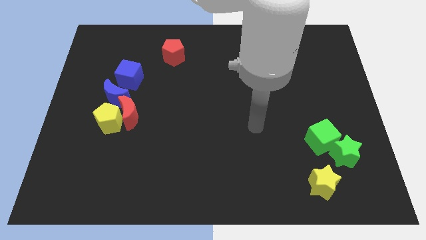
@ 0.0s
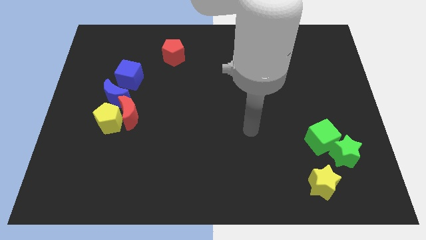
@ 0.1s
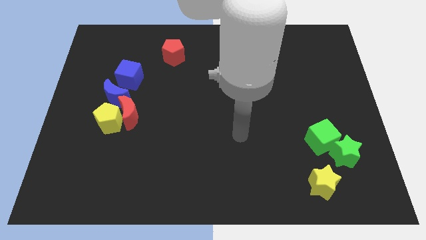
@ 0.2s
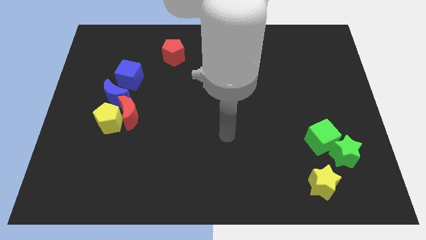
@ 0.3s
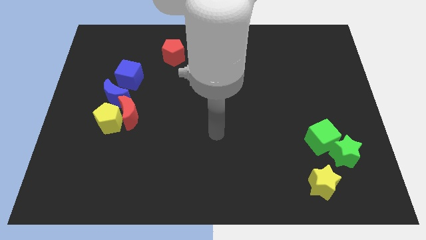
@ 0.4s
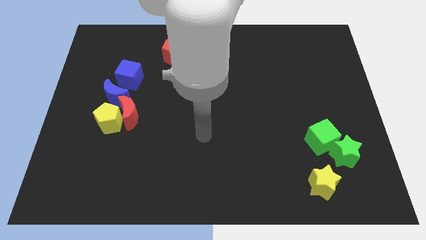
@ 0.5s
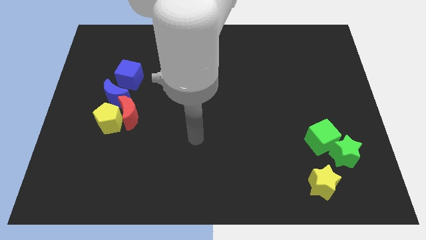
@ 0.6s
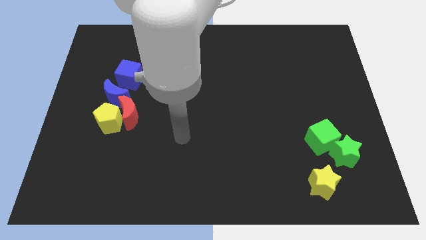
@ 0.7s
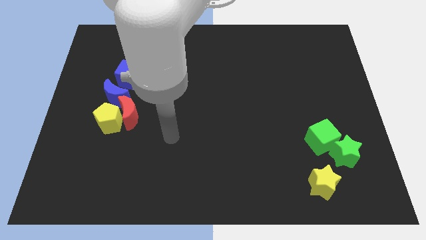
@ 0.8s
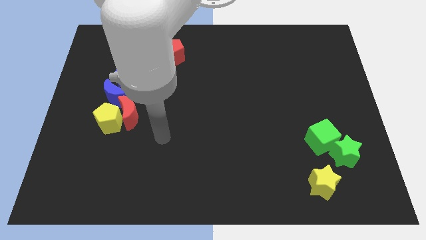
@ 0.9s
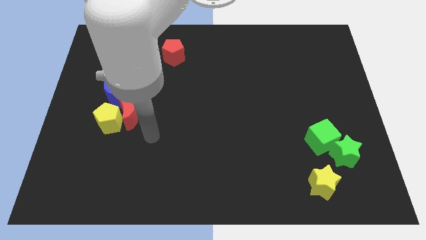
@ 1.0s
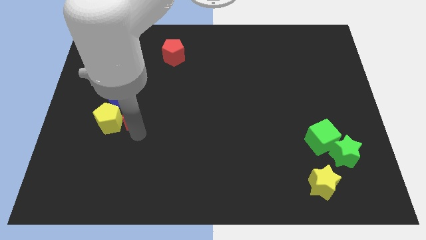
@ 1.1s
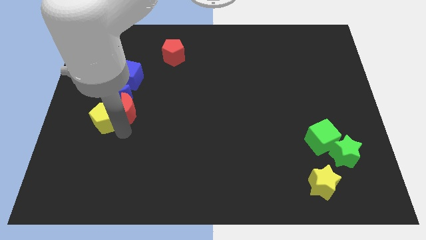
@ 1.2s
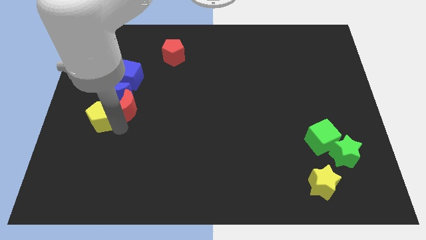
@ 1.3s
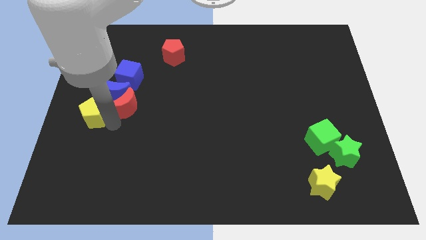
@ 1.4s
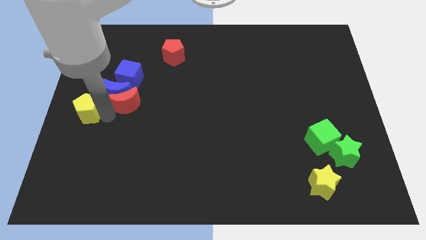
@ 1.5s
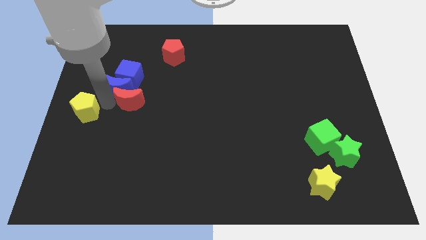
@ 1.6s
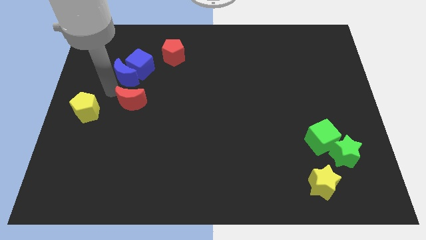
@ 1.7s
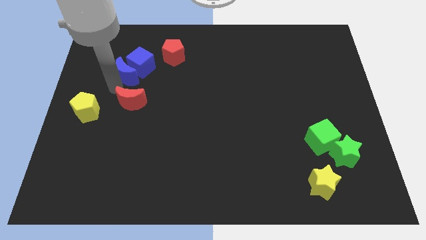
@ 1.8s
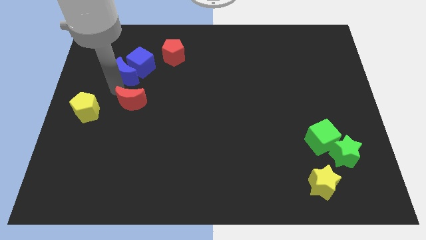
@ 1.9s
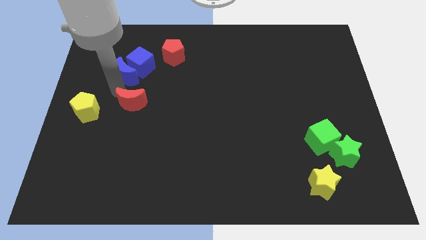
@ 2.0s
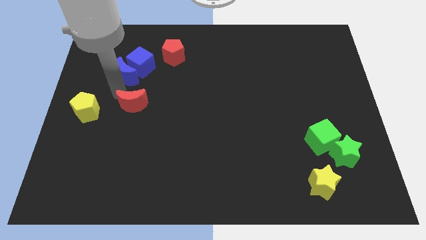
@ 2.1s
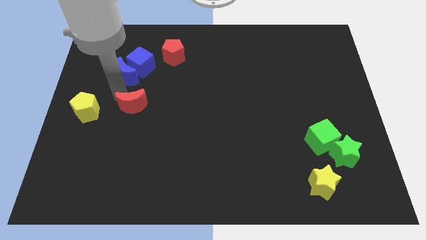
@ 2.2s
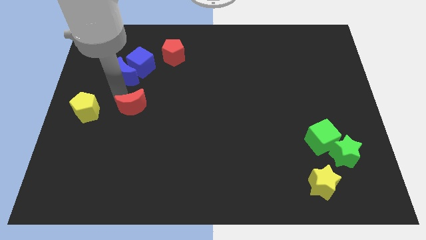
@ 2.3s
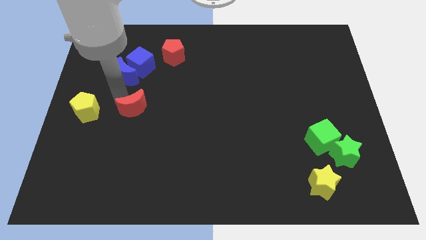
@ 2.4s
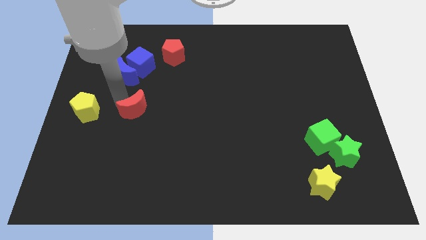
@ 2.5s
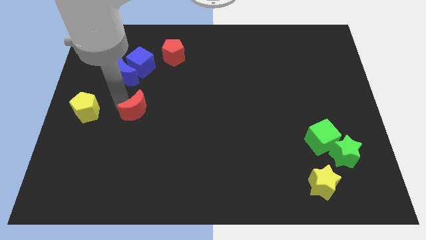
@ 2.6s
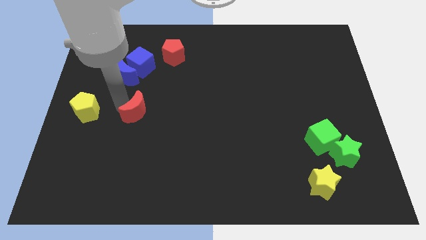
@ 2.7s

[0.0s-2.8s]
move the red moon away from the yellow pentagon and blue moon

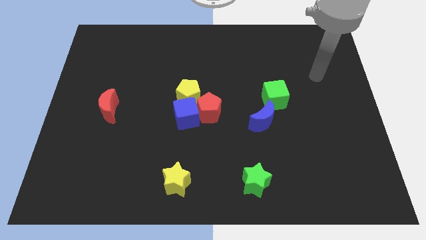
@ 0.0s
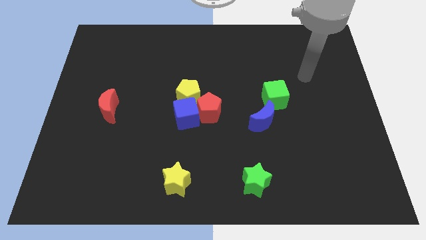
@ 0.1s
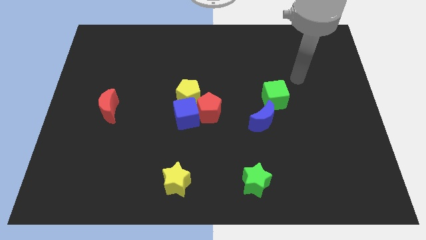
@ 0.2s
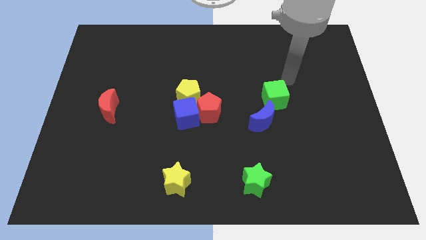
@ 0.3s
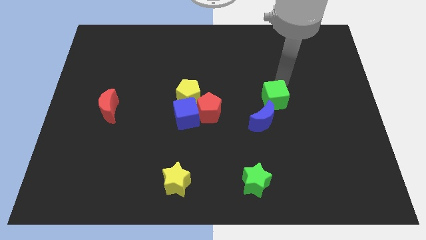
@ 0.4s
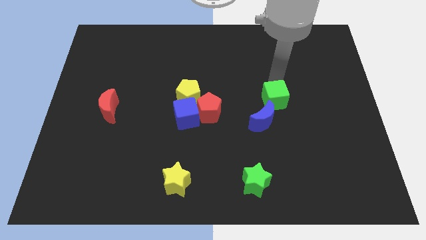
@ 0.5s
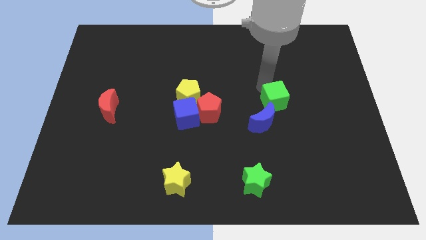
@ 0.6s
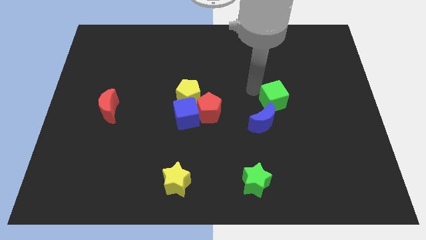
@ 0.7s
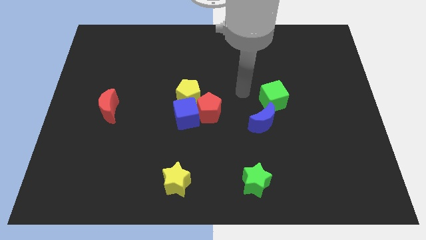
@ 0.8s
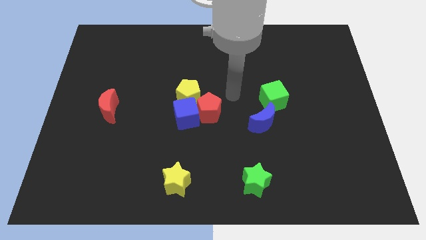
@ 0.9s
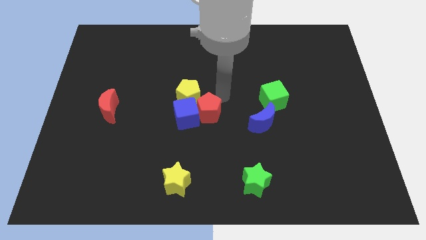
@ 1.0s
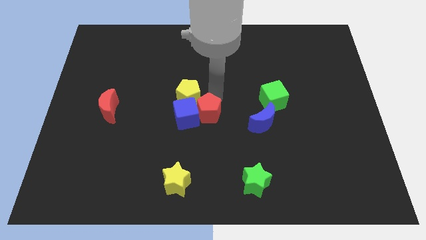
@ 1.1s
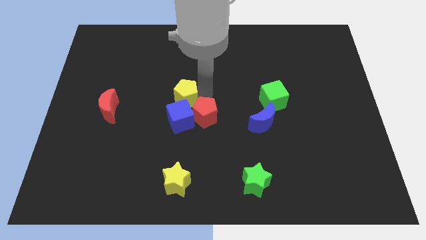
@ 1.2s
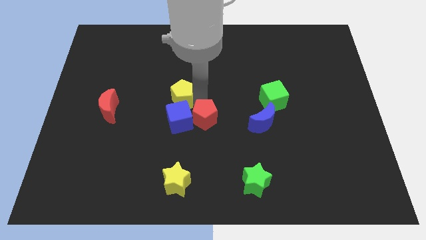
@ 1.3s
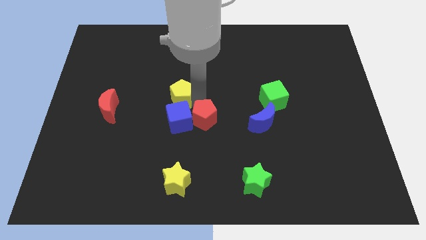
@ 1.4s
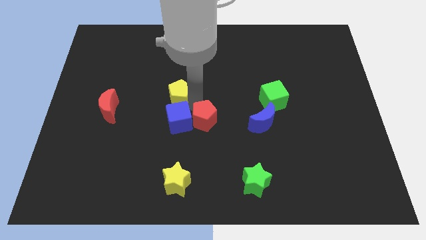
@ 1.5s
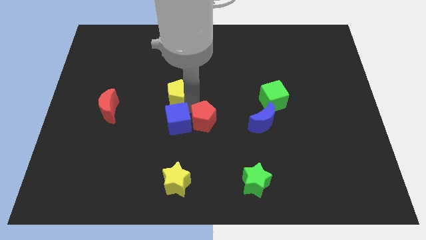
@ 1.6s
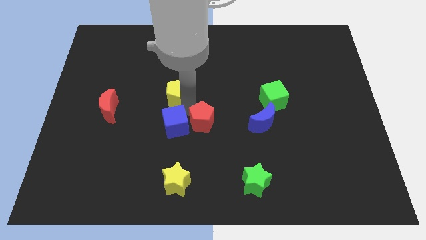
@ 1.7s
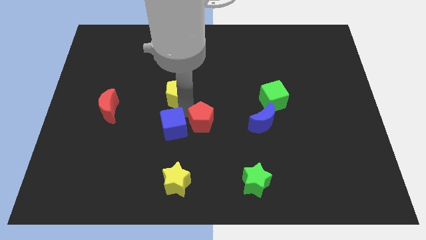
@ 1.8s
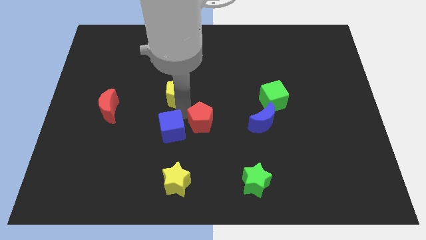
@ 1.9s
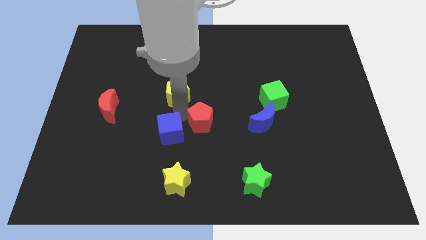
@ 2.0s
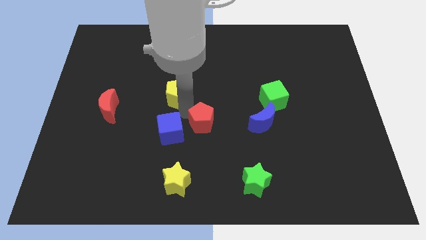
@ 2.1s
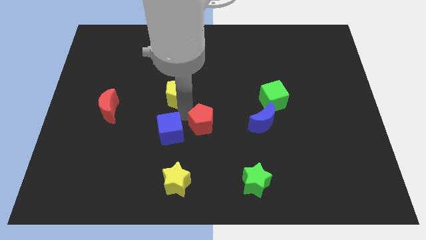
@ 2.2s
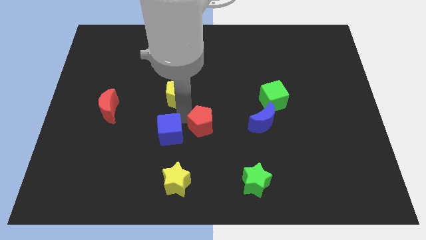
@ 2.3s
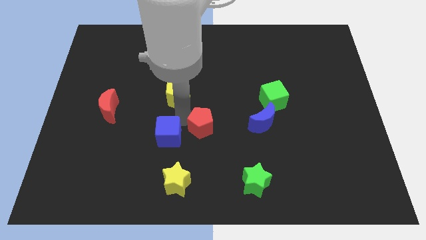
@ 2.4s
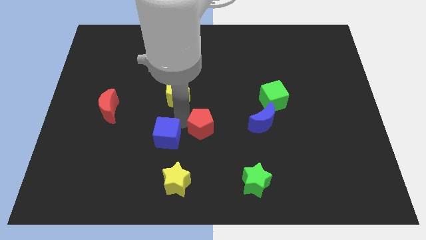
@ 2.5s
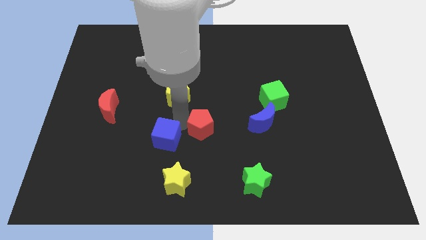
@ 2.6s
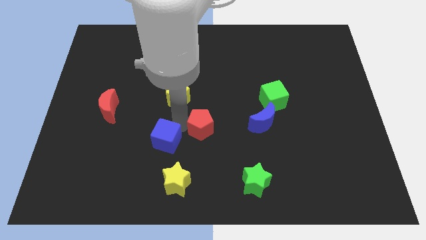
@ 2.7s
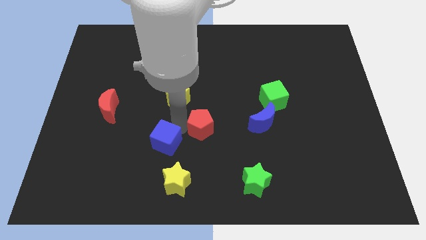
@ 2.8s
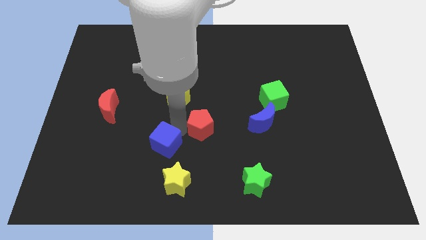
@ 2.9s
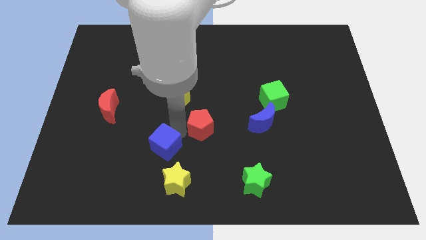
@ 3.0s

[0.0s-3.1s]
separate the blue cube from the red pentagon and yellow pentagon

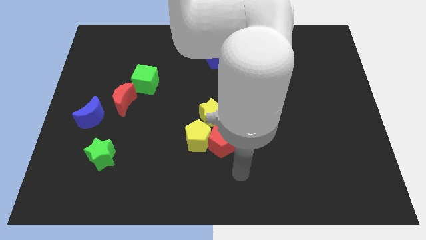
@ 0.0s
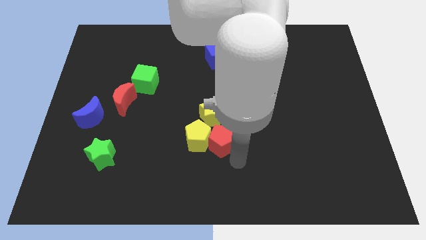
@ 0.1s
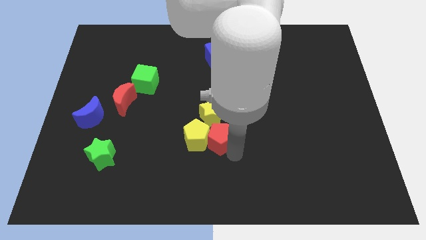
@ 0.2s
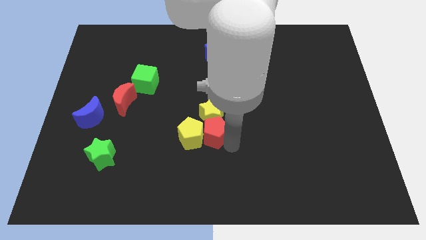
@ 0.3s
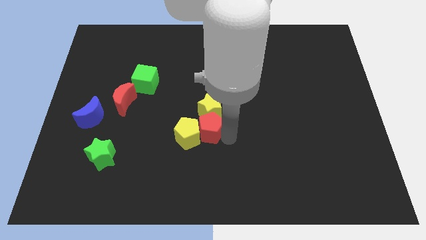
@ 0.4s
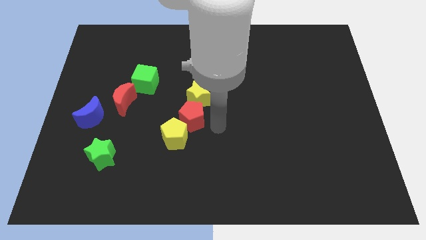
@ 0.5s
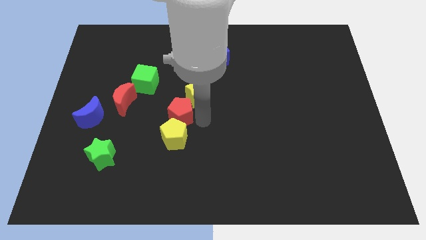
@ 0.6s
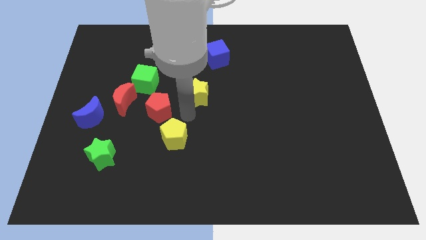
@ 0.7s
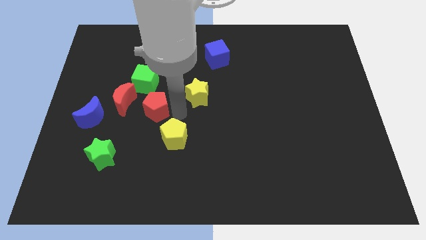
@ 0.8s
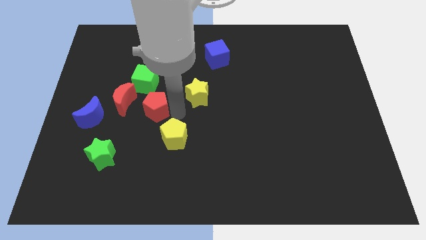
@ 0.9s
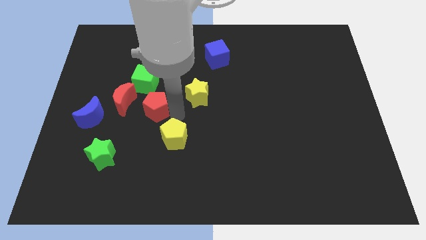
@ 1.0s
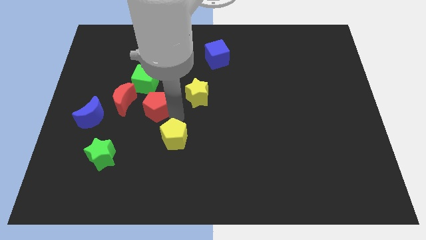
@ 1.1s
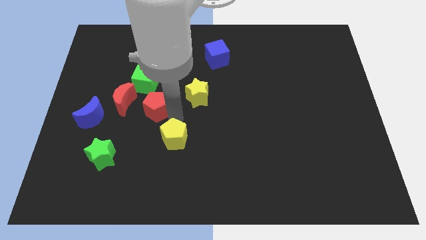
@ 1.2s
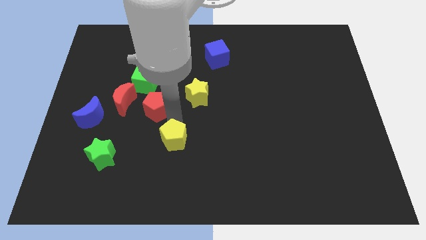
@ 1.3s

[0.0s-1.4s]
pull the yellow pentagon apart from the red pentagon and yellow star

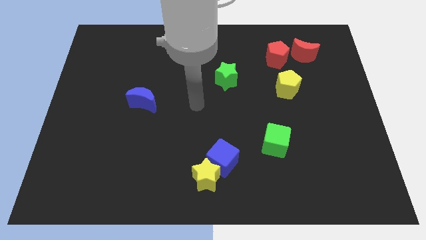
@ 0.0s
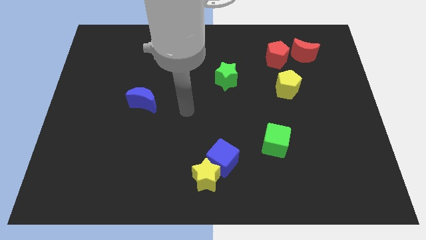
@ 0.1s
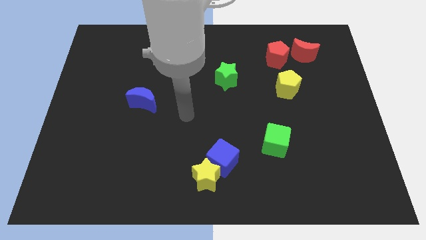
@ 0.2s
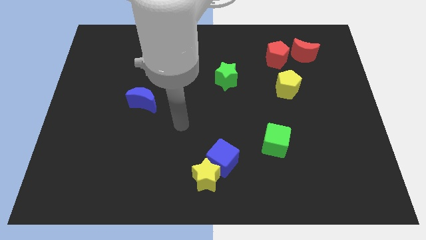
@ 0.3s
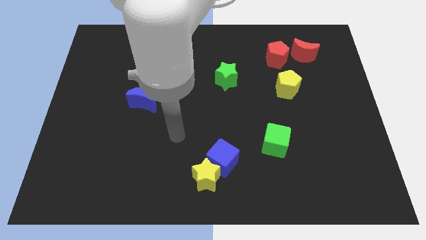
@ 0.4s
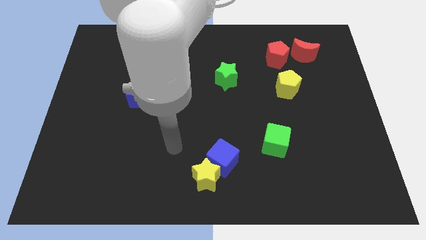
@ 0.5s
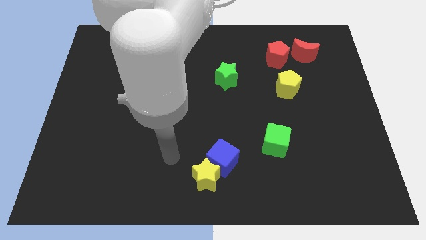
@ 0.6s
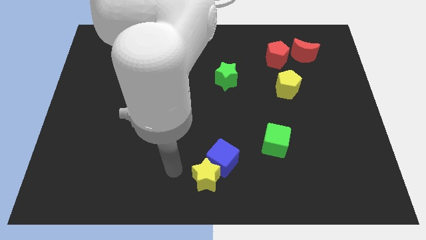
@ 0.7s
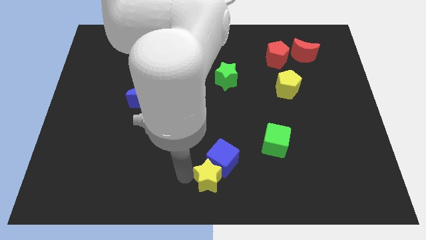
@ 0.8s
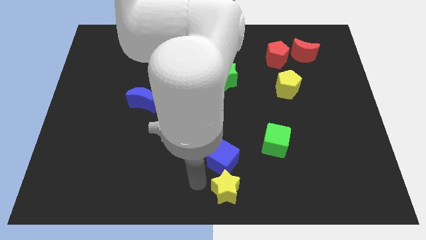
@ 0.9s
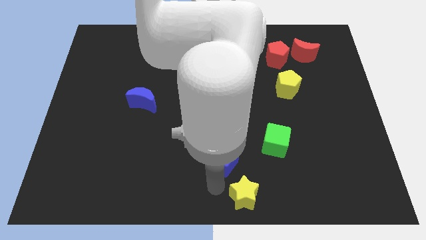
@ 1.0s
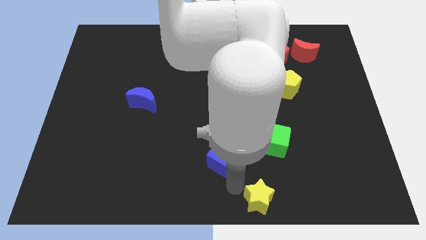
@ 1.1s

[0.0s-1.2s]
pull the blue cube apart from the yellow star

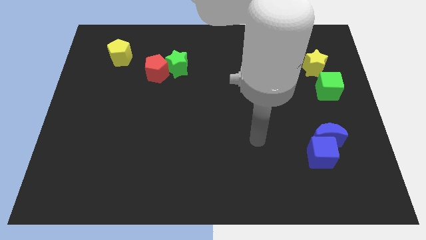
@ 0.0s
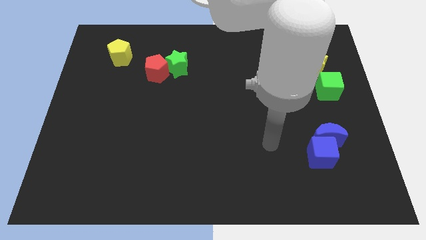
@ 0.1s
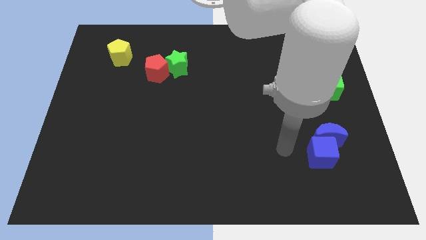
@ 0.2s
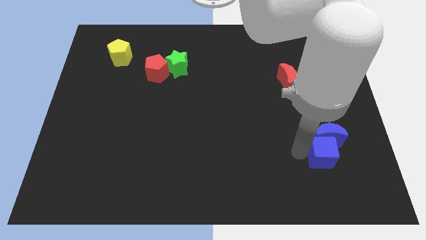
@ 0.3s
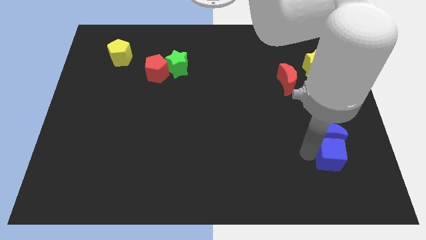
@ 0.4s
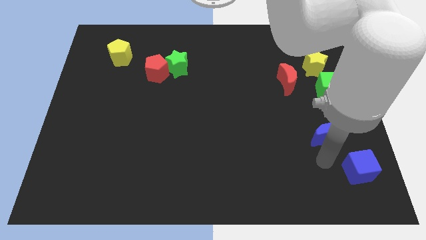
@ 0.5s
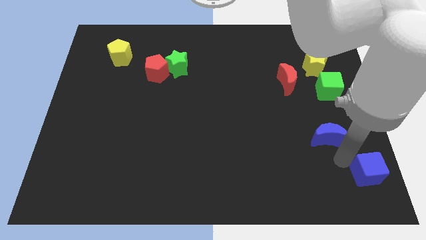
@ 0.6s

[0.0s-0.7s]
move the blue moon away from the blue cube
